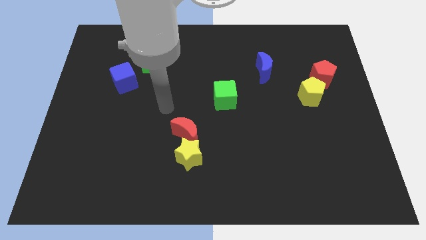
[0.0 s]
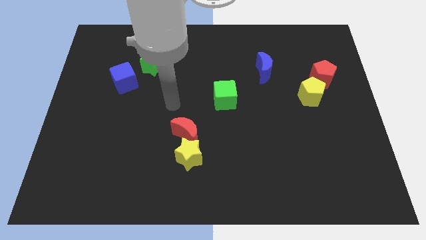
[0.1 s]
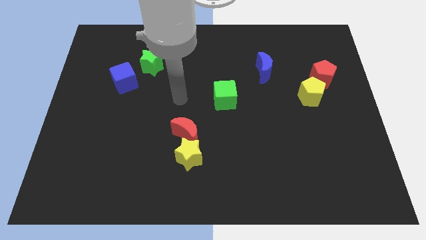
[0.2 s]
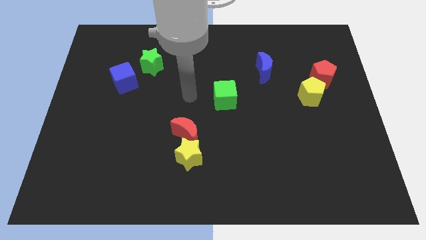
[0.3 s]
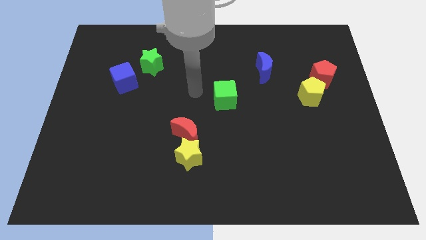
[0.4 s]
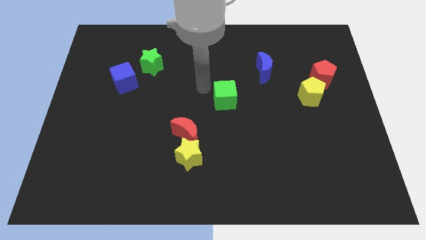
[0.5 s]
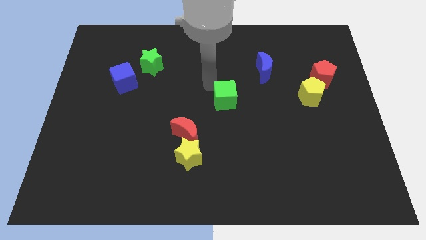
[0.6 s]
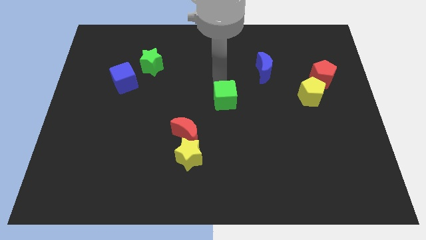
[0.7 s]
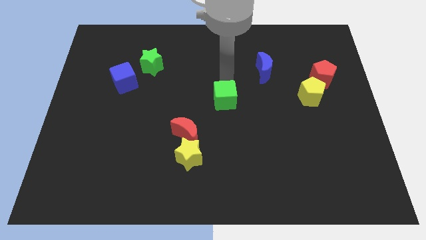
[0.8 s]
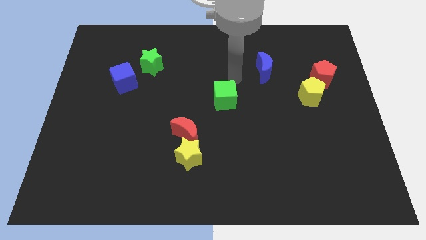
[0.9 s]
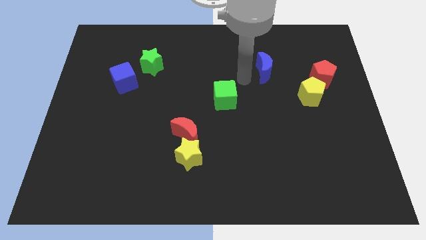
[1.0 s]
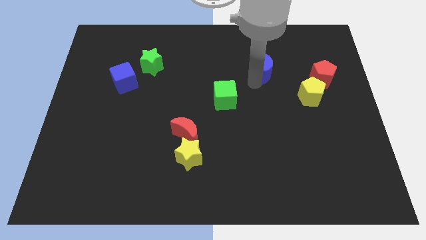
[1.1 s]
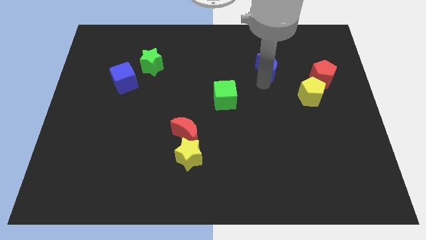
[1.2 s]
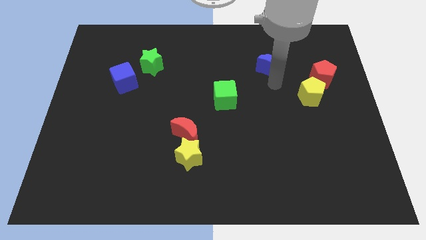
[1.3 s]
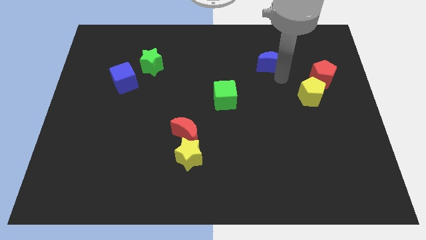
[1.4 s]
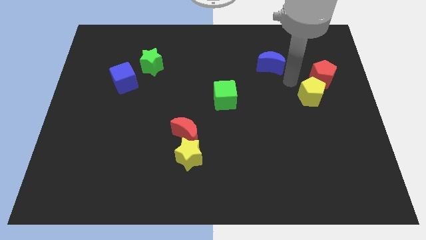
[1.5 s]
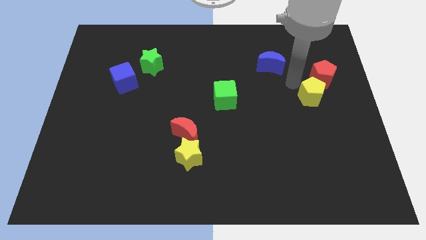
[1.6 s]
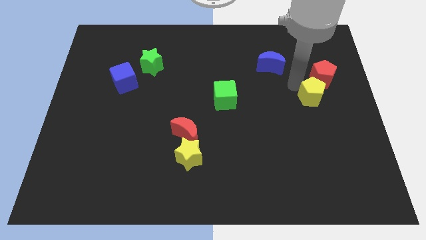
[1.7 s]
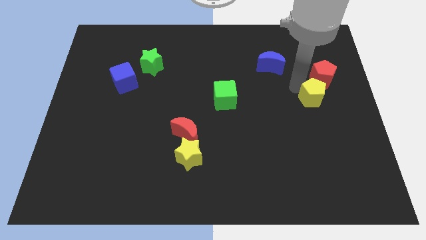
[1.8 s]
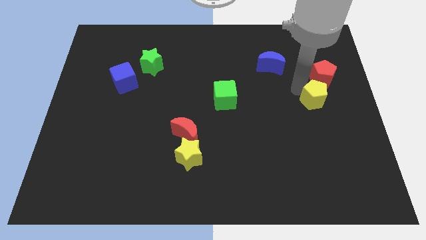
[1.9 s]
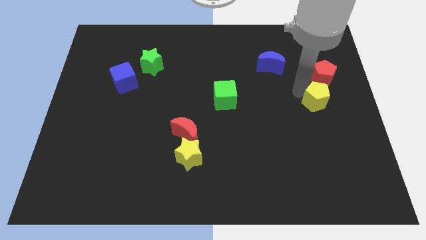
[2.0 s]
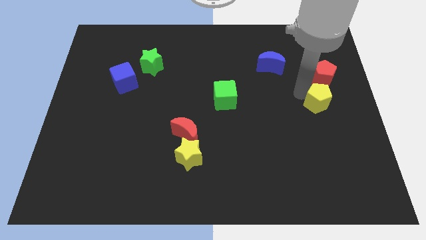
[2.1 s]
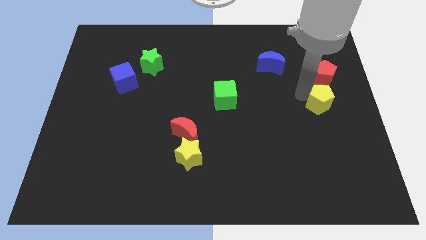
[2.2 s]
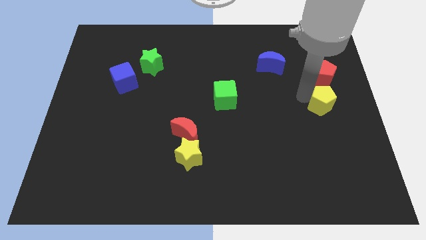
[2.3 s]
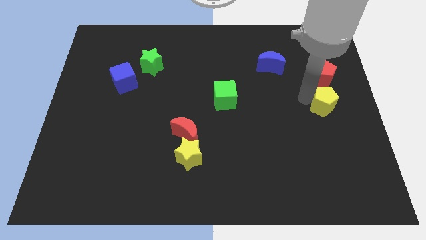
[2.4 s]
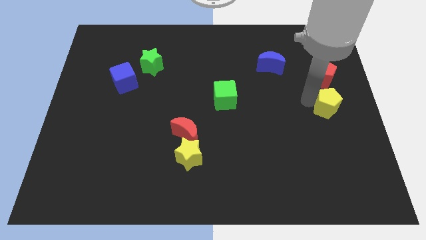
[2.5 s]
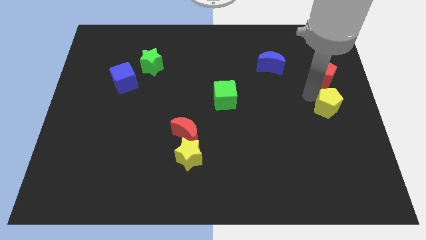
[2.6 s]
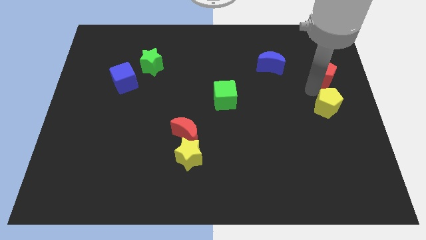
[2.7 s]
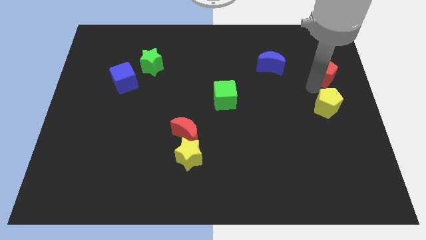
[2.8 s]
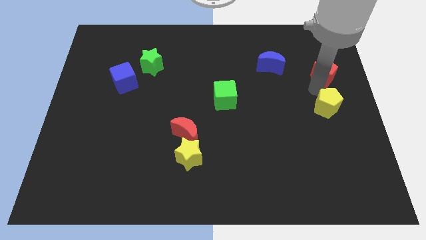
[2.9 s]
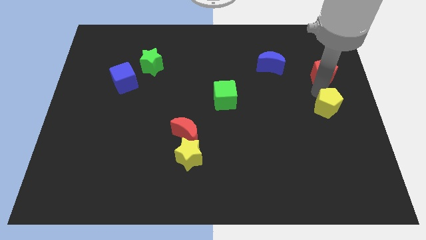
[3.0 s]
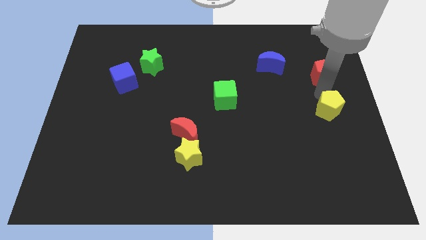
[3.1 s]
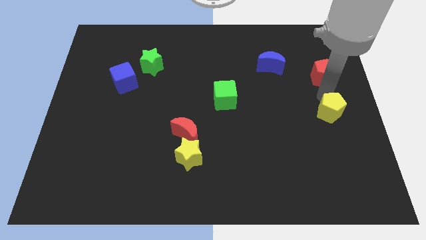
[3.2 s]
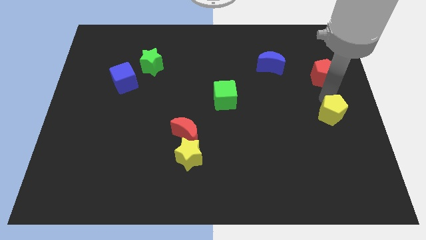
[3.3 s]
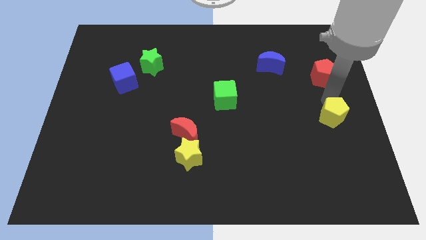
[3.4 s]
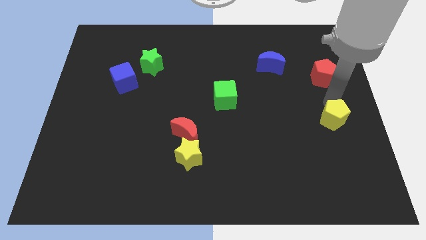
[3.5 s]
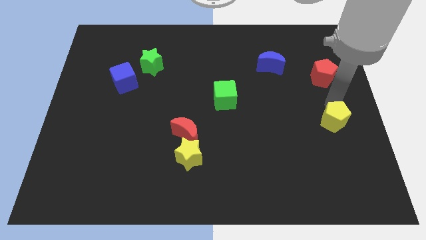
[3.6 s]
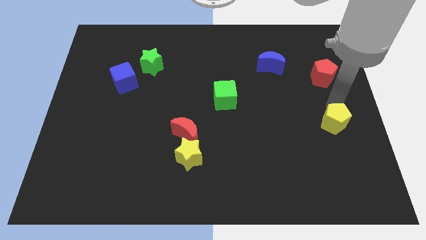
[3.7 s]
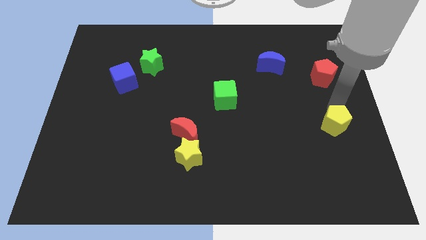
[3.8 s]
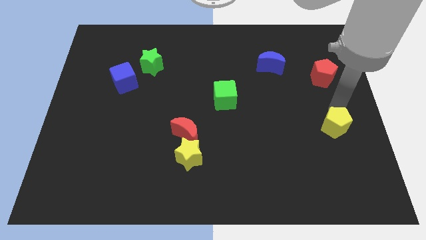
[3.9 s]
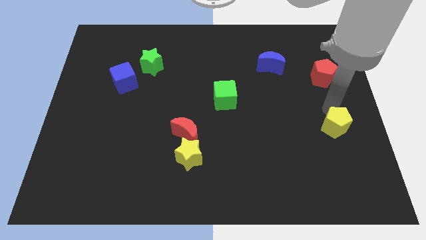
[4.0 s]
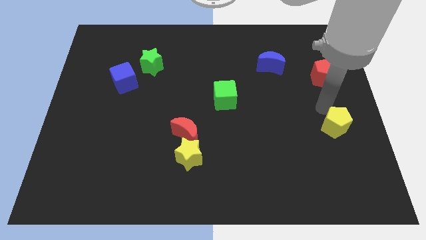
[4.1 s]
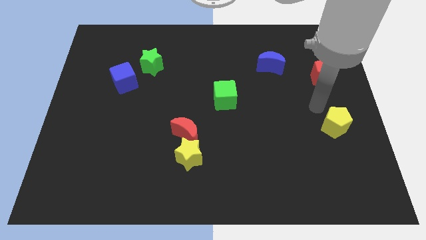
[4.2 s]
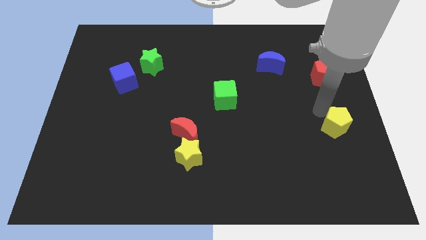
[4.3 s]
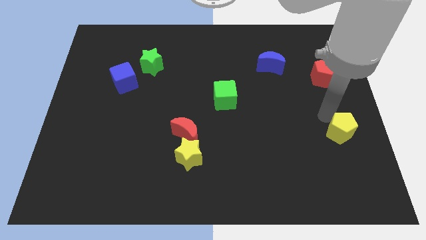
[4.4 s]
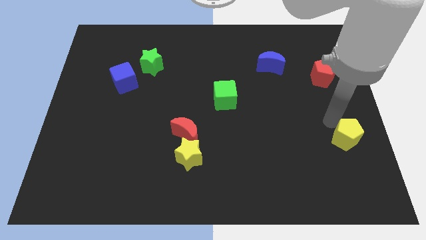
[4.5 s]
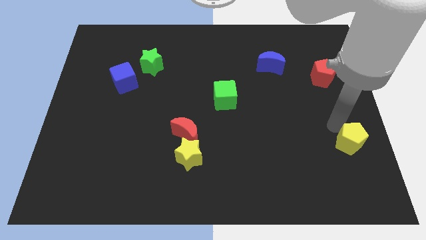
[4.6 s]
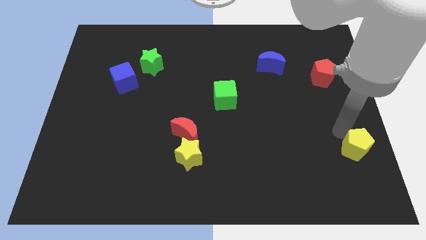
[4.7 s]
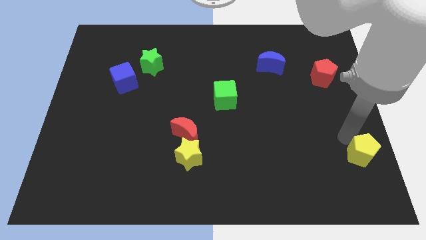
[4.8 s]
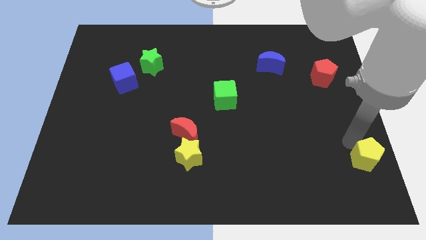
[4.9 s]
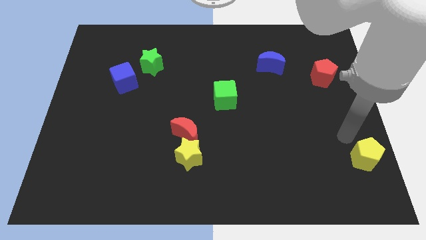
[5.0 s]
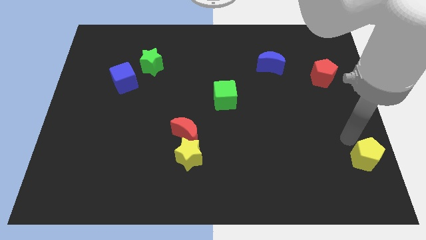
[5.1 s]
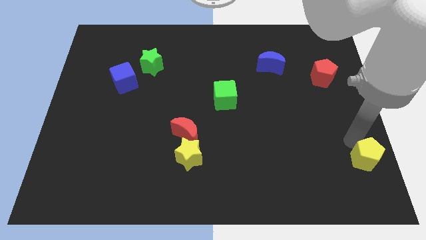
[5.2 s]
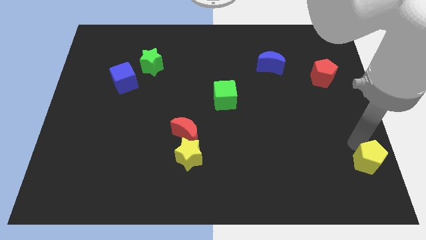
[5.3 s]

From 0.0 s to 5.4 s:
slide the yellow pentagon to the bottom right of the board
